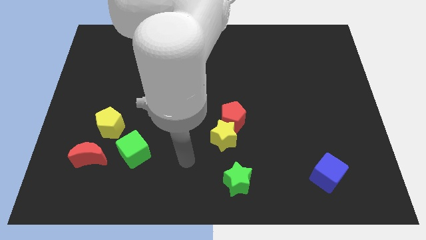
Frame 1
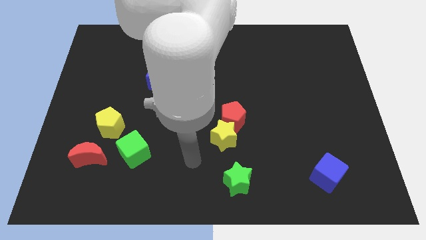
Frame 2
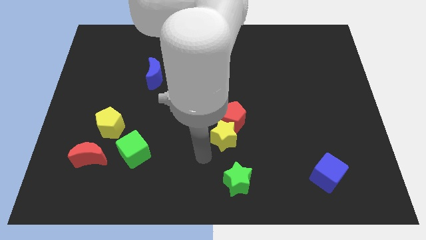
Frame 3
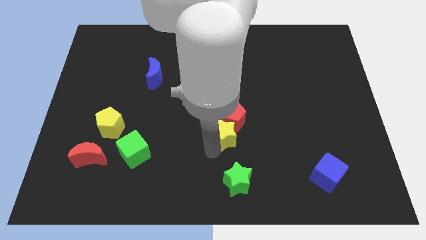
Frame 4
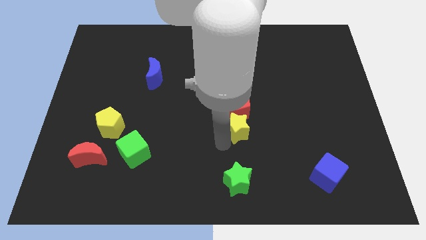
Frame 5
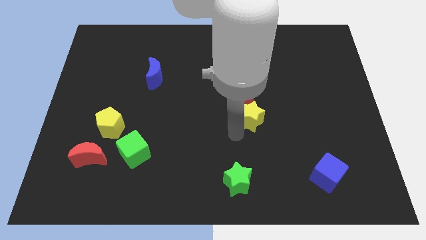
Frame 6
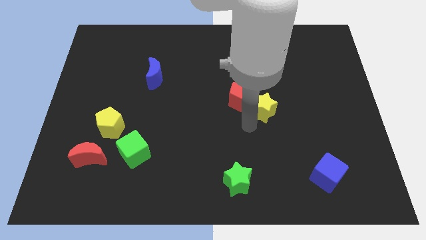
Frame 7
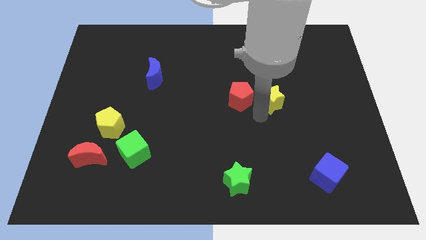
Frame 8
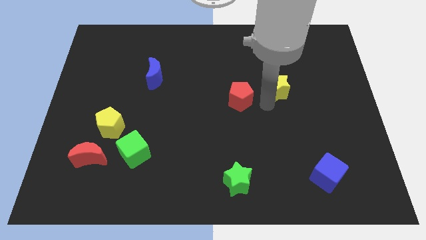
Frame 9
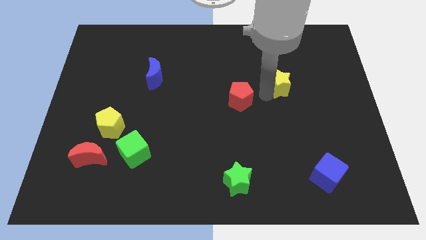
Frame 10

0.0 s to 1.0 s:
move the red pentagon away from the yellow star

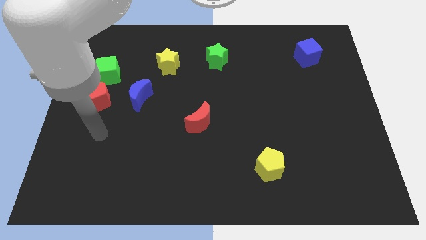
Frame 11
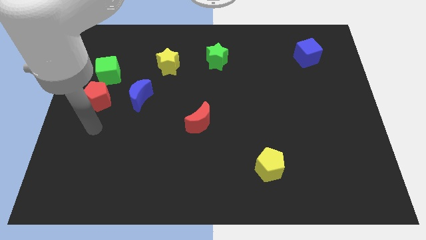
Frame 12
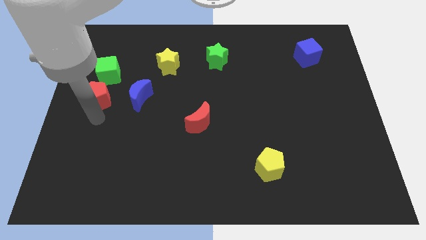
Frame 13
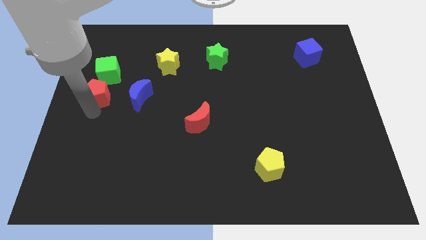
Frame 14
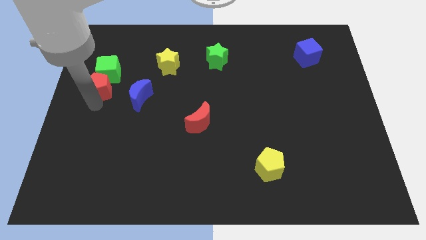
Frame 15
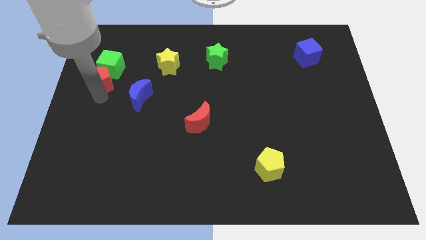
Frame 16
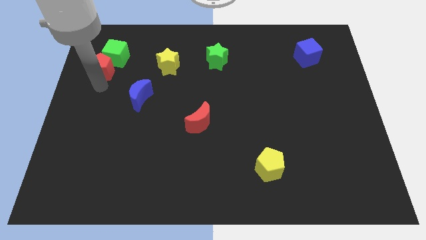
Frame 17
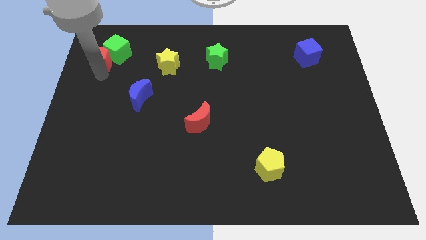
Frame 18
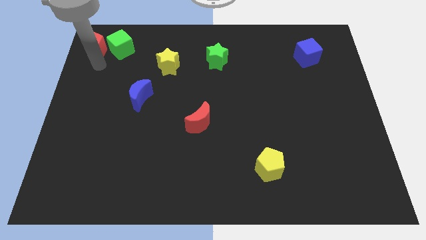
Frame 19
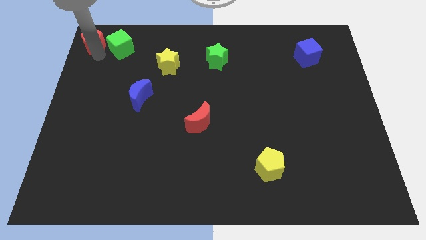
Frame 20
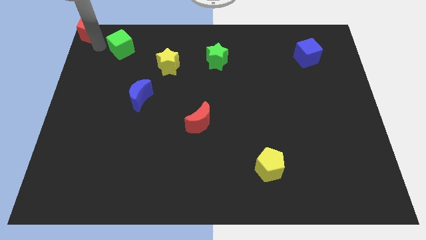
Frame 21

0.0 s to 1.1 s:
move the green cube away from the red pentagon

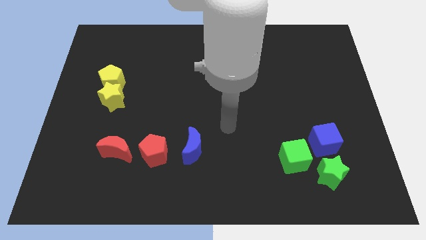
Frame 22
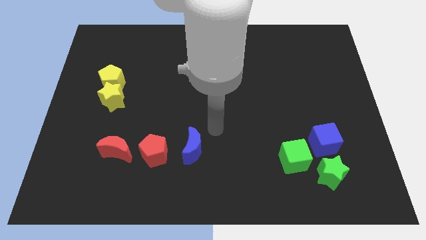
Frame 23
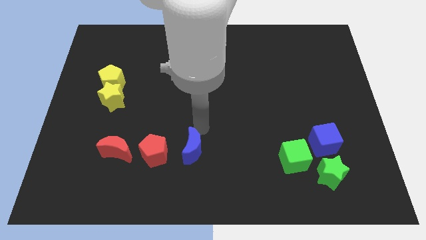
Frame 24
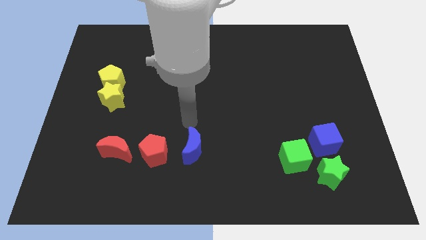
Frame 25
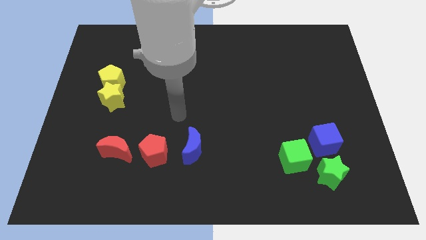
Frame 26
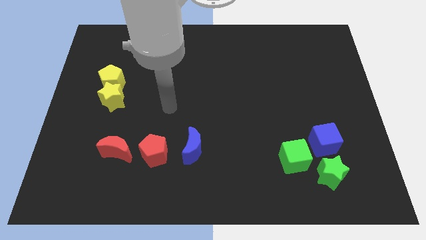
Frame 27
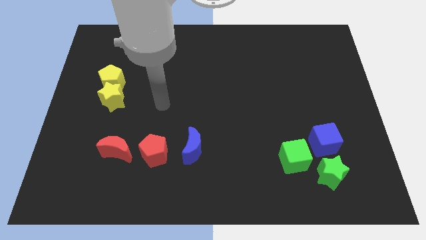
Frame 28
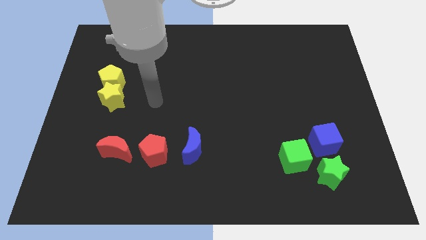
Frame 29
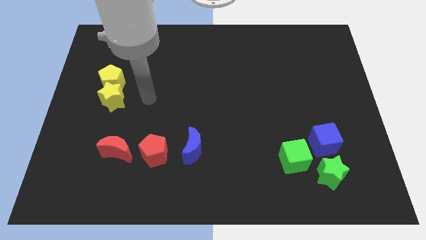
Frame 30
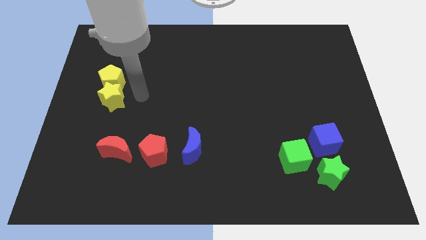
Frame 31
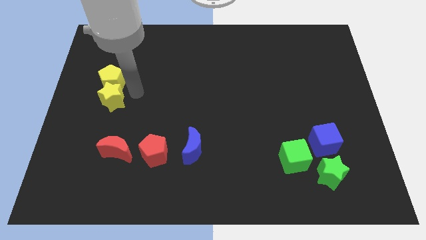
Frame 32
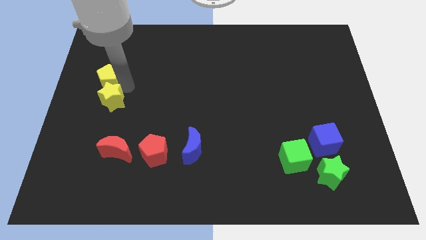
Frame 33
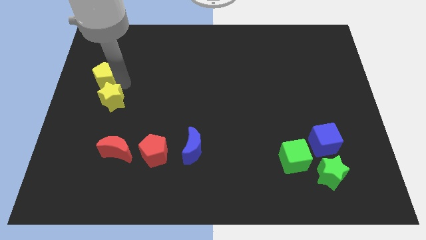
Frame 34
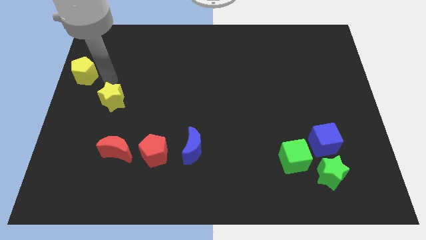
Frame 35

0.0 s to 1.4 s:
separate the yellow star from the yellow pentagon

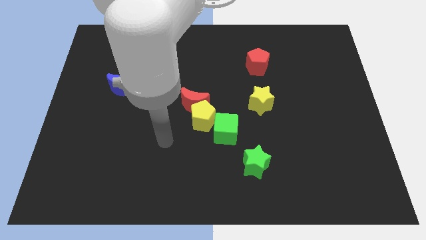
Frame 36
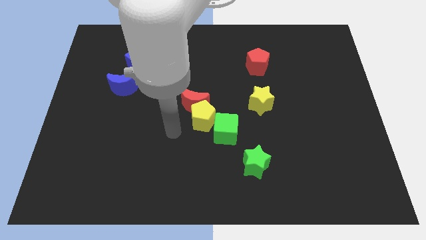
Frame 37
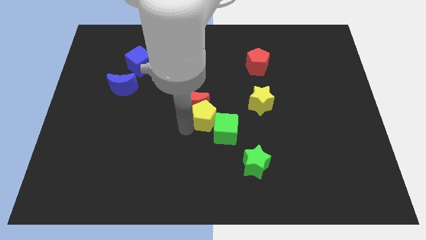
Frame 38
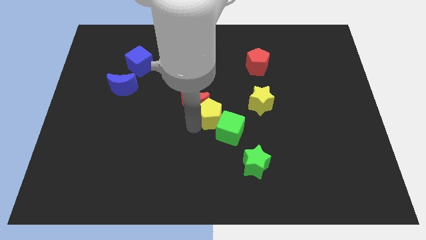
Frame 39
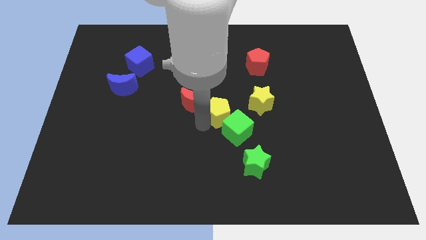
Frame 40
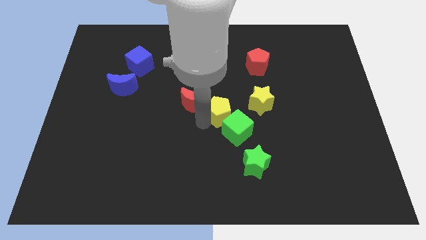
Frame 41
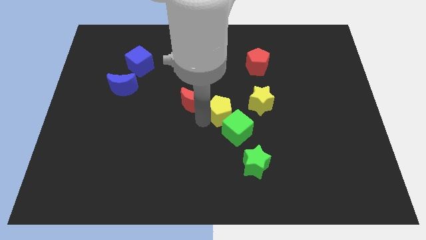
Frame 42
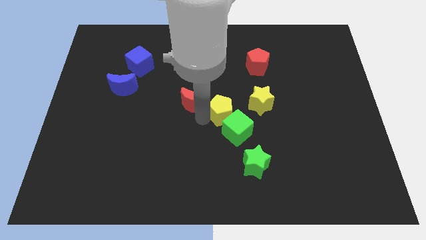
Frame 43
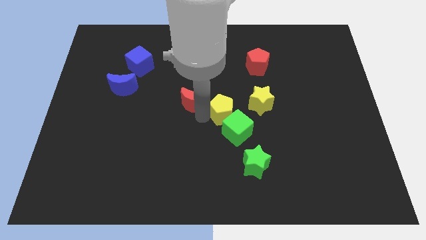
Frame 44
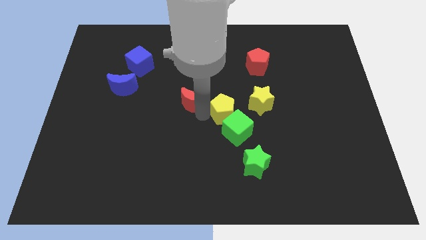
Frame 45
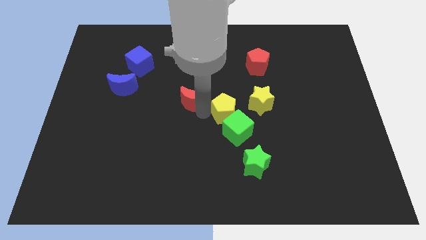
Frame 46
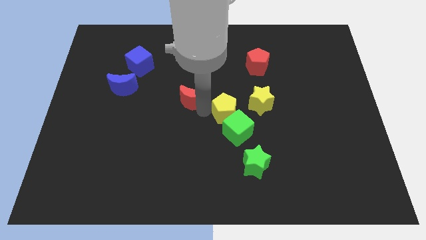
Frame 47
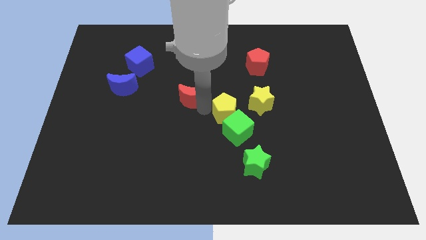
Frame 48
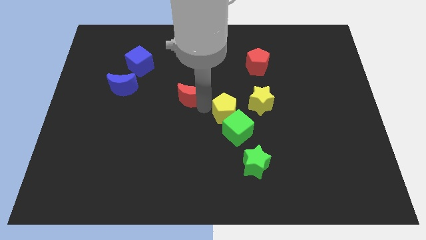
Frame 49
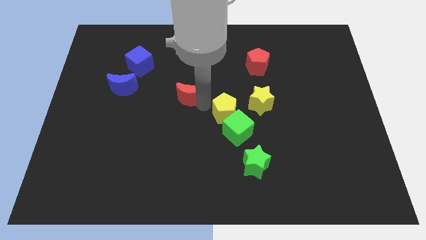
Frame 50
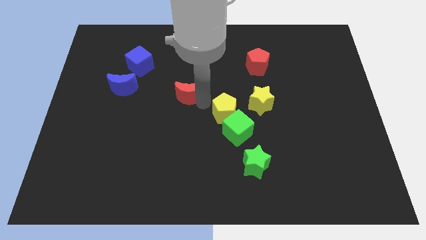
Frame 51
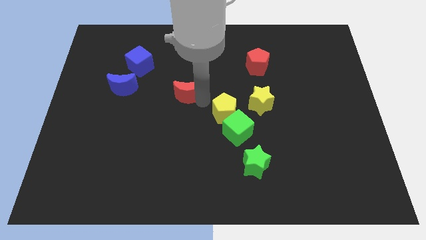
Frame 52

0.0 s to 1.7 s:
separate the red moon from the yellow pentagon

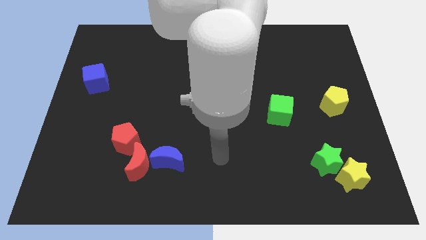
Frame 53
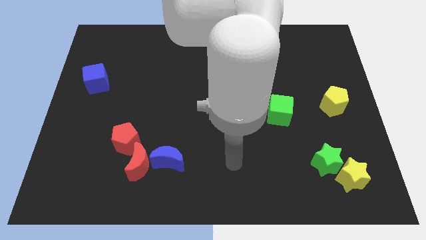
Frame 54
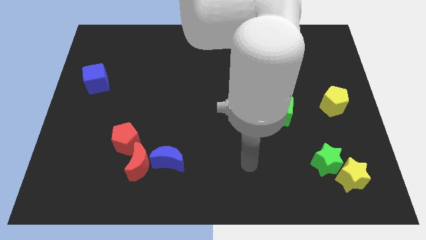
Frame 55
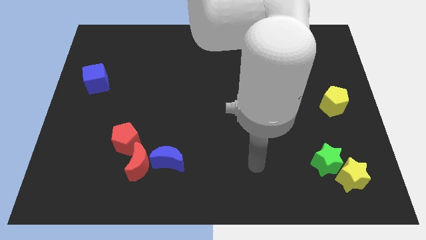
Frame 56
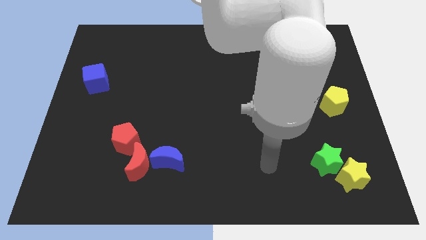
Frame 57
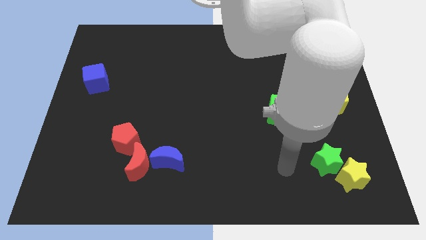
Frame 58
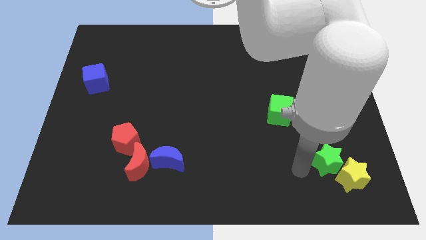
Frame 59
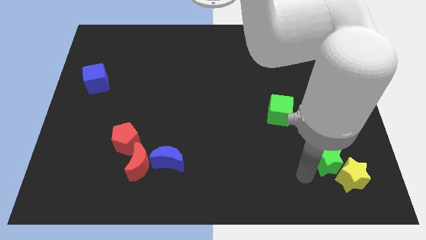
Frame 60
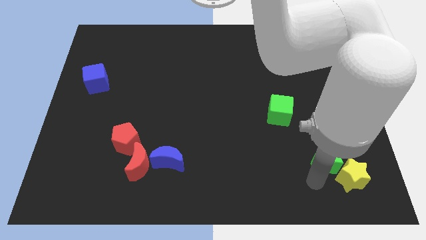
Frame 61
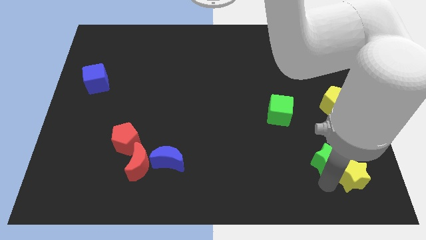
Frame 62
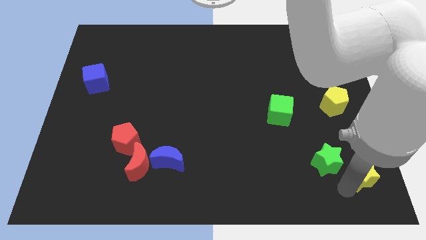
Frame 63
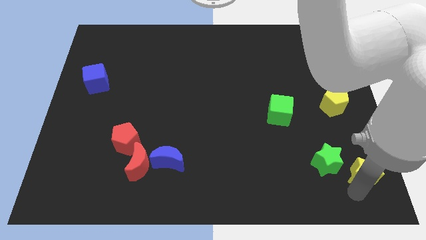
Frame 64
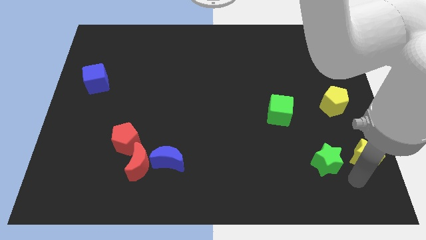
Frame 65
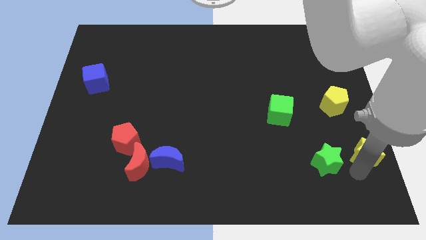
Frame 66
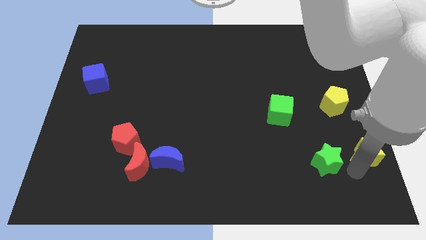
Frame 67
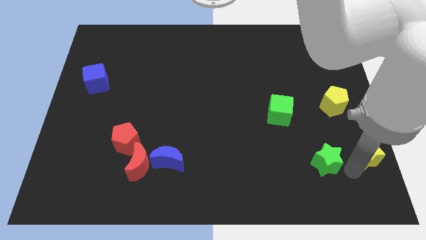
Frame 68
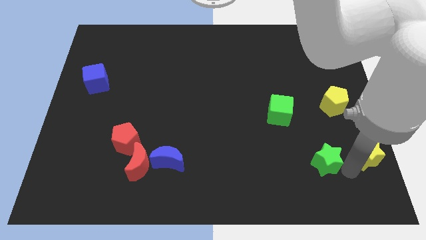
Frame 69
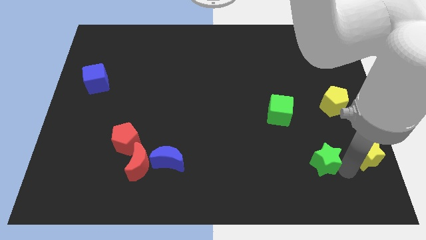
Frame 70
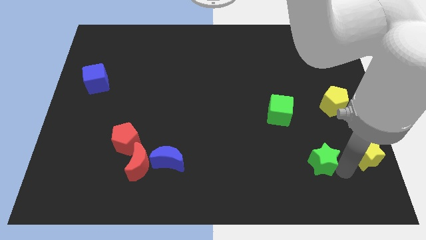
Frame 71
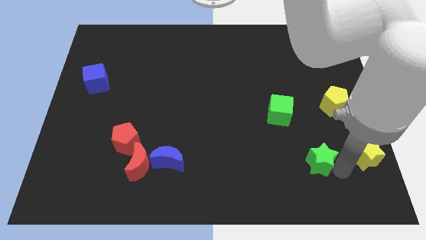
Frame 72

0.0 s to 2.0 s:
separate the green star from the yellow star

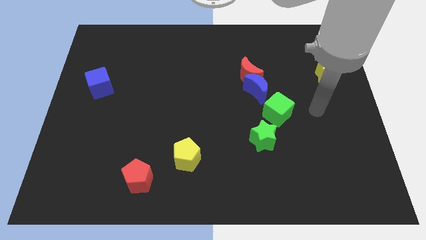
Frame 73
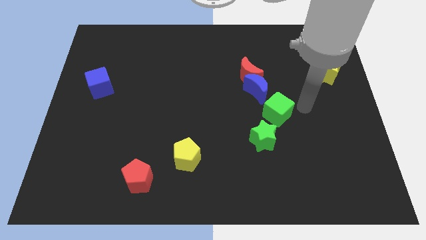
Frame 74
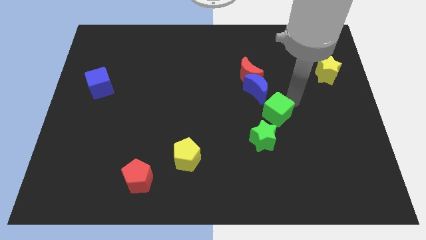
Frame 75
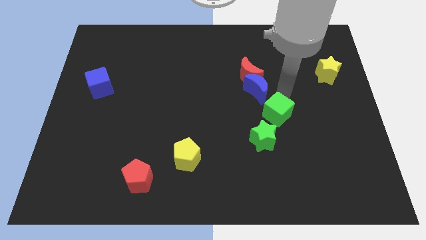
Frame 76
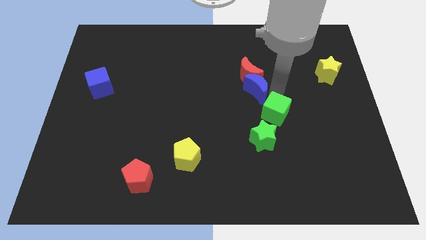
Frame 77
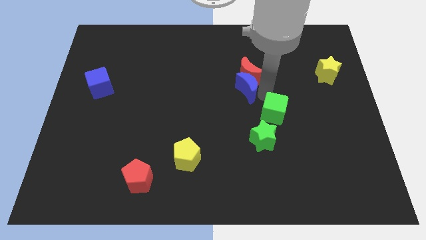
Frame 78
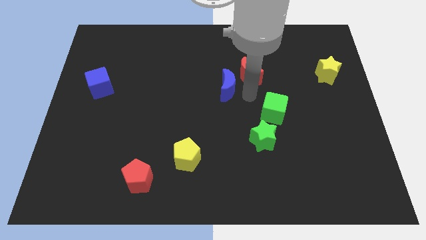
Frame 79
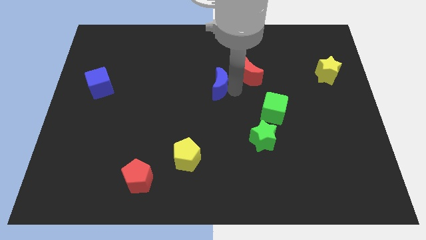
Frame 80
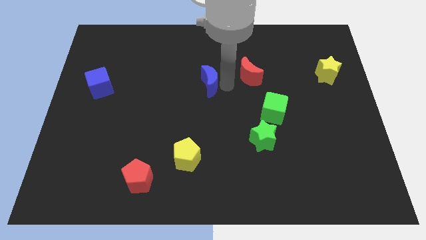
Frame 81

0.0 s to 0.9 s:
separate the red moon from the blue moon

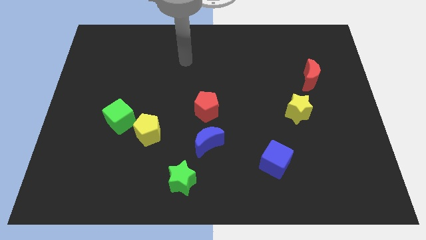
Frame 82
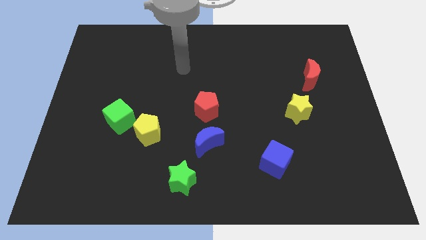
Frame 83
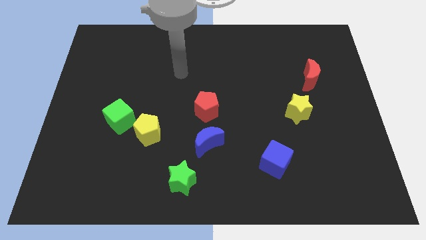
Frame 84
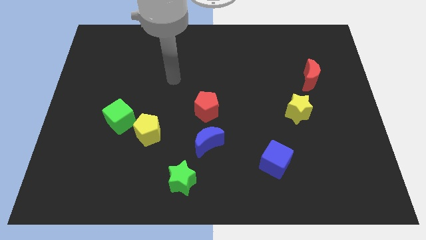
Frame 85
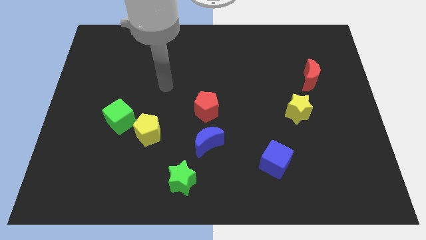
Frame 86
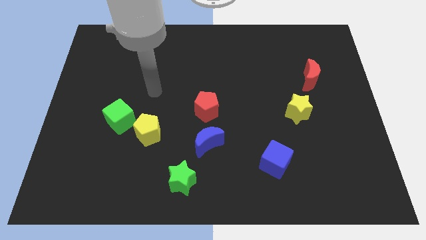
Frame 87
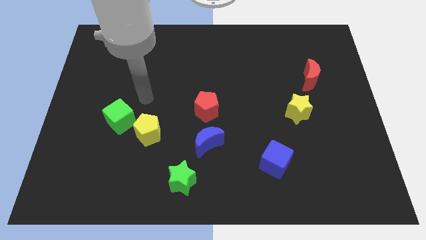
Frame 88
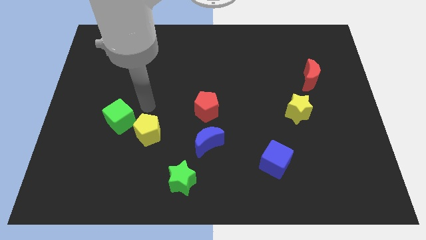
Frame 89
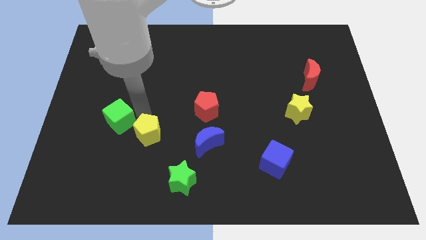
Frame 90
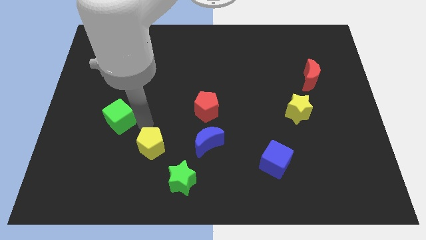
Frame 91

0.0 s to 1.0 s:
move the green cube away from the yellow pentagon

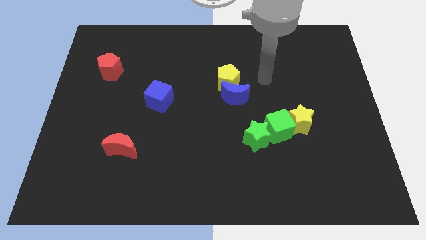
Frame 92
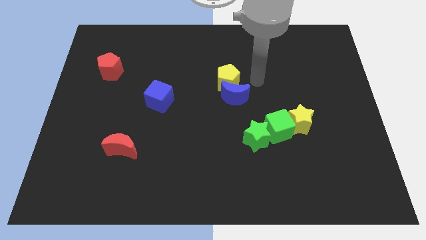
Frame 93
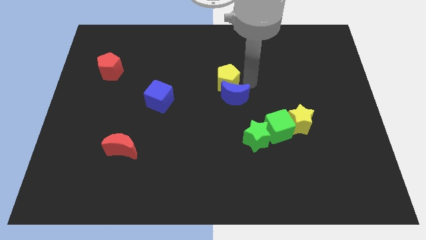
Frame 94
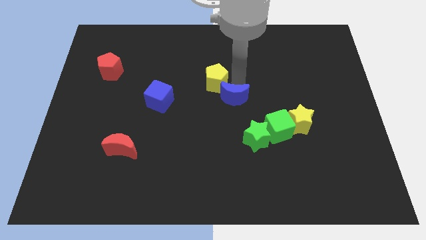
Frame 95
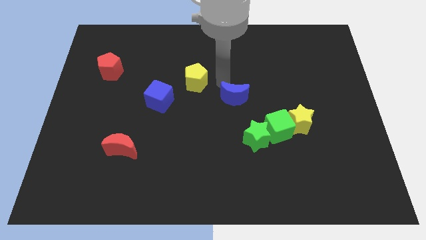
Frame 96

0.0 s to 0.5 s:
pull the blue moon apart from the yellow pentagon
